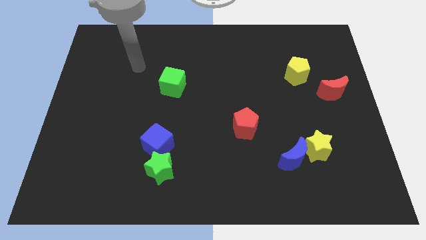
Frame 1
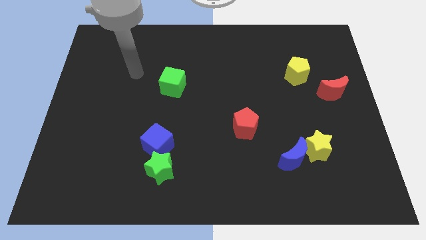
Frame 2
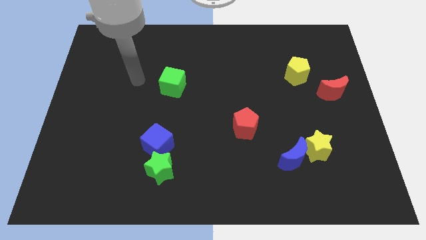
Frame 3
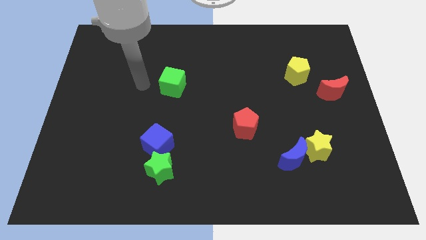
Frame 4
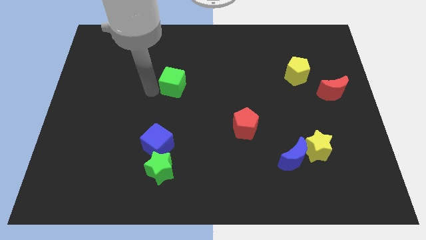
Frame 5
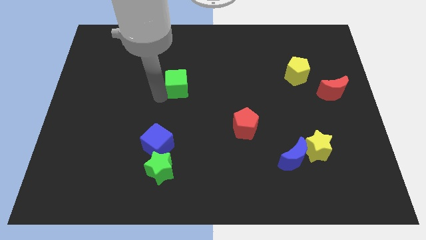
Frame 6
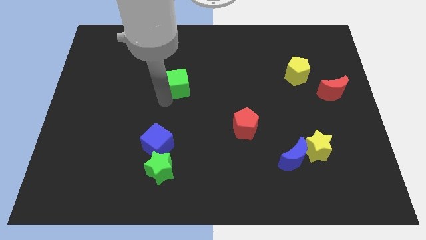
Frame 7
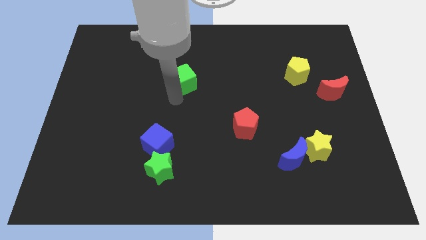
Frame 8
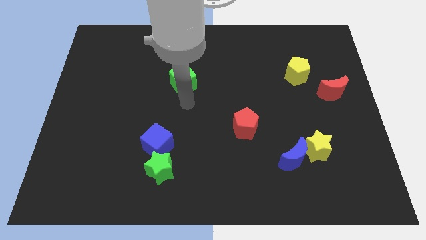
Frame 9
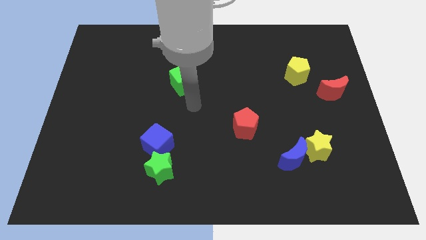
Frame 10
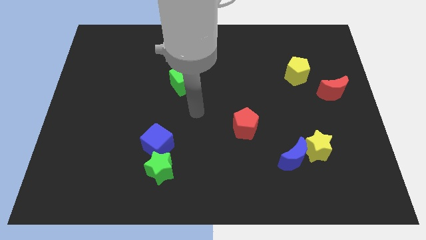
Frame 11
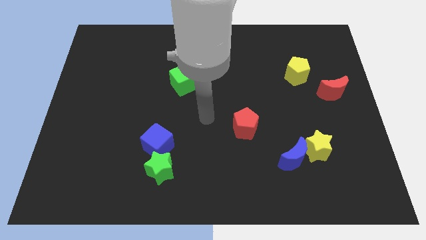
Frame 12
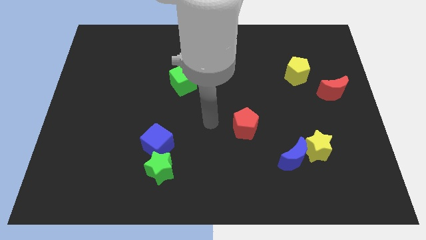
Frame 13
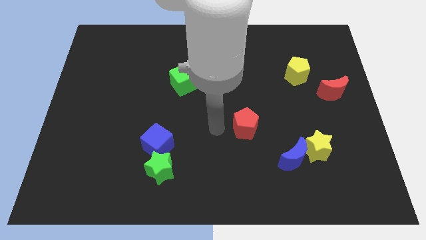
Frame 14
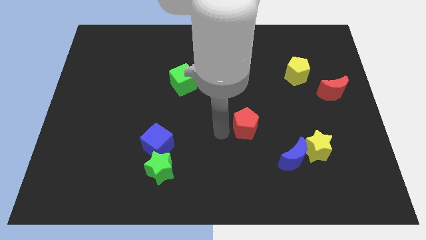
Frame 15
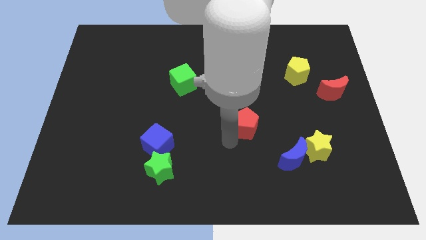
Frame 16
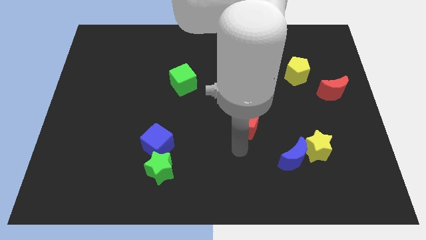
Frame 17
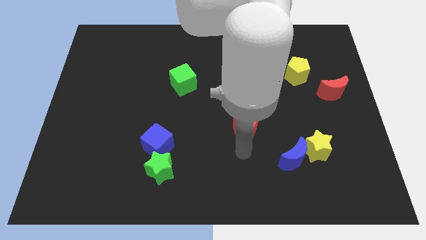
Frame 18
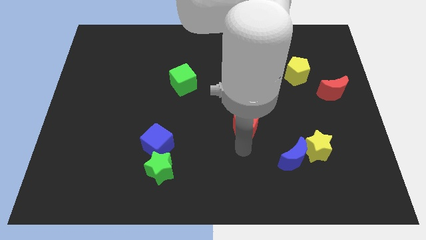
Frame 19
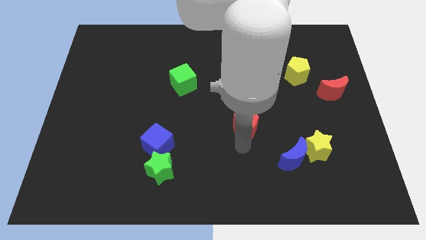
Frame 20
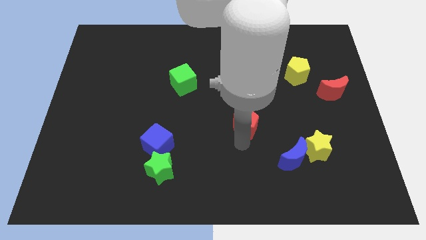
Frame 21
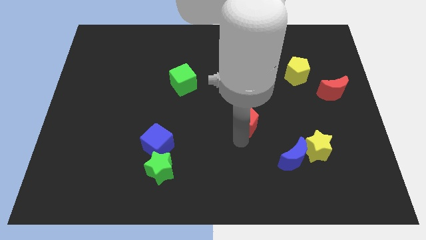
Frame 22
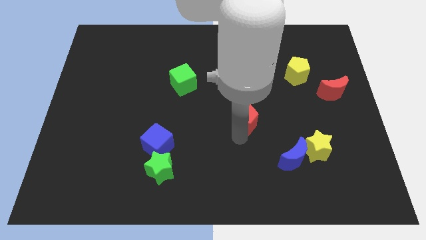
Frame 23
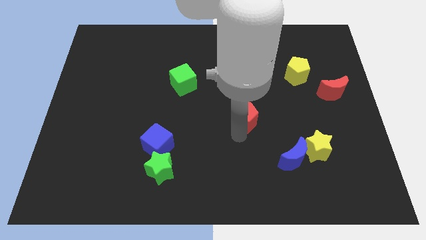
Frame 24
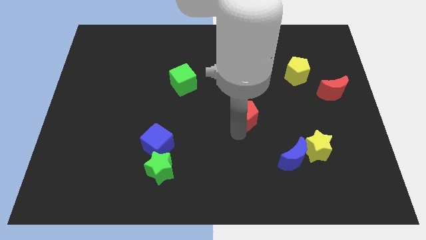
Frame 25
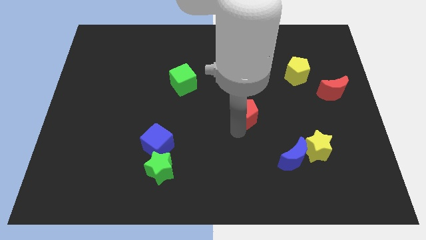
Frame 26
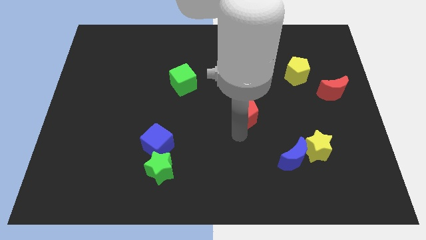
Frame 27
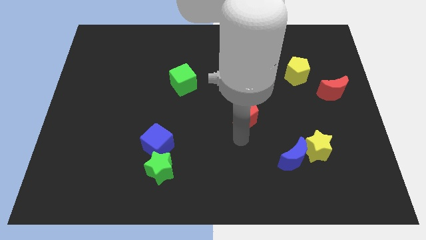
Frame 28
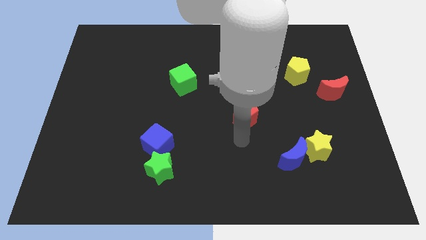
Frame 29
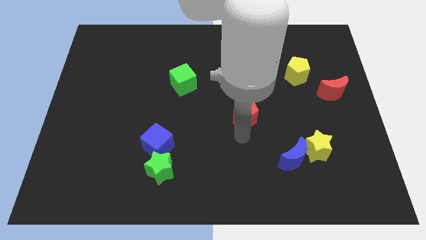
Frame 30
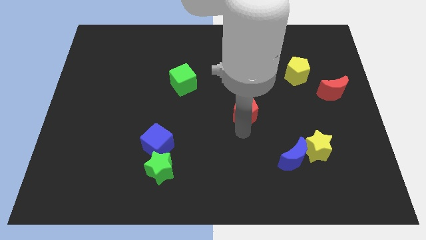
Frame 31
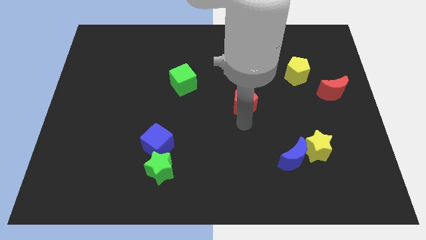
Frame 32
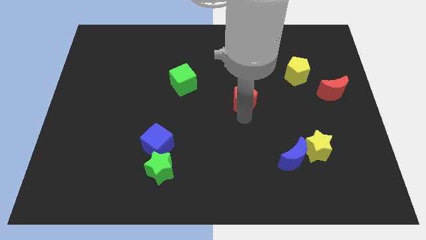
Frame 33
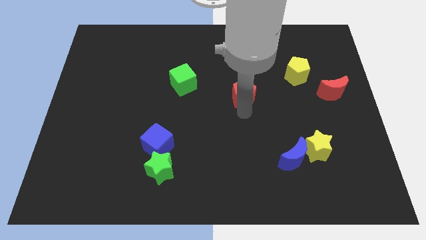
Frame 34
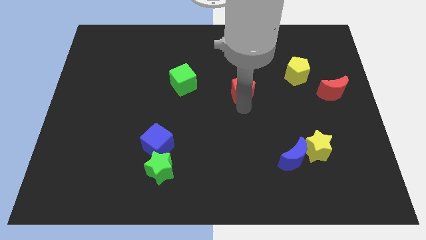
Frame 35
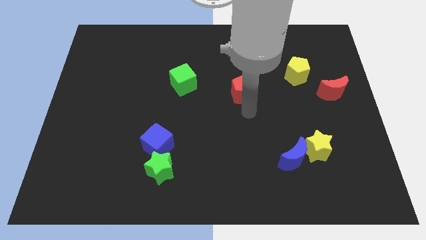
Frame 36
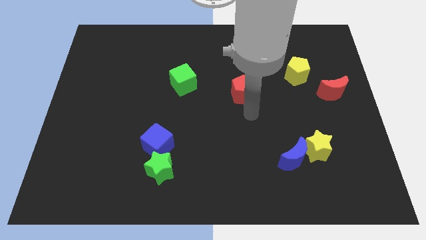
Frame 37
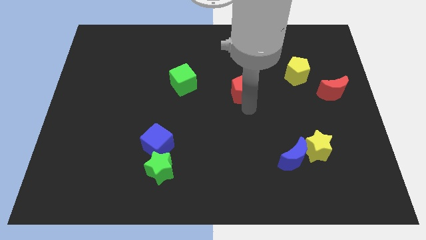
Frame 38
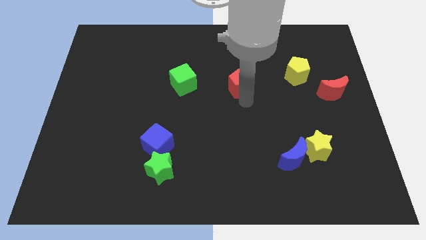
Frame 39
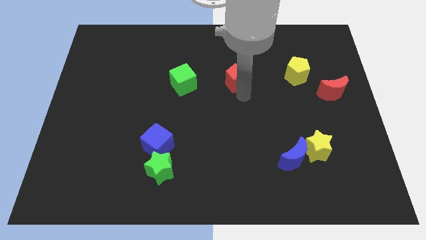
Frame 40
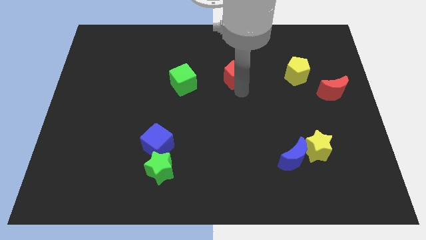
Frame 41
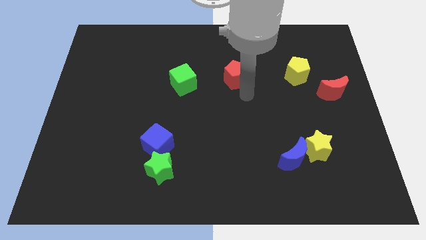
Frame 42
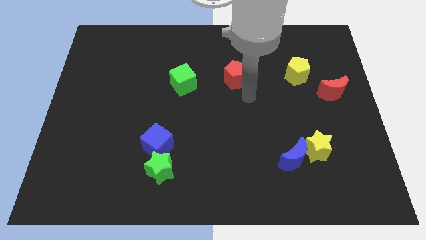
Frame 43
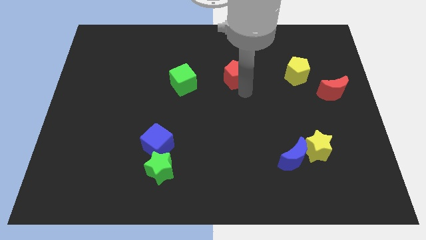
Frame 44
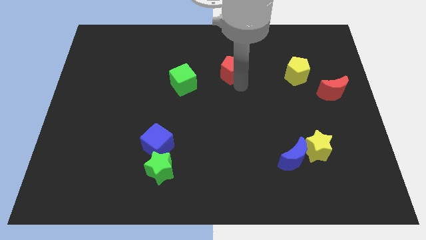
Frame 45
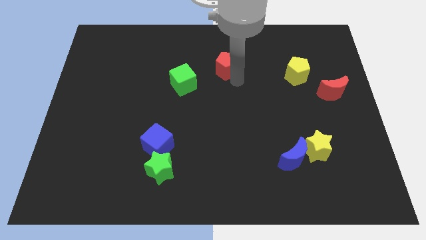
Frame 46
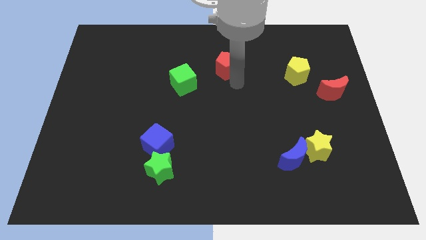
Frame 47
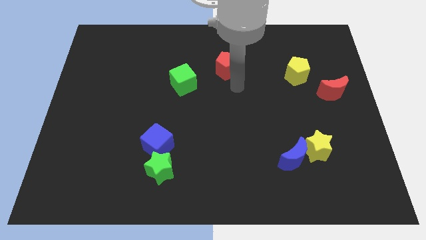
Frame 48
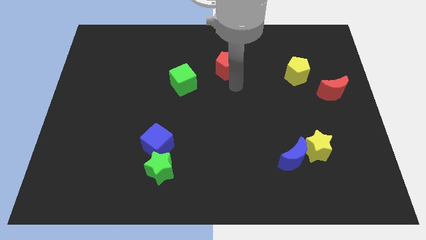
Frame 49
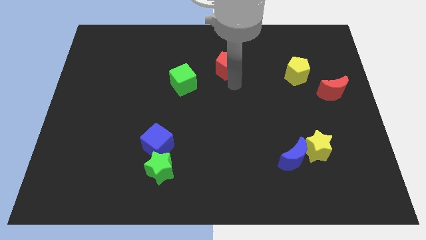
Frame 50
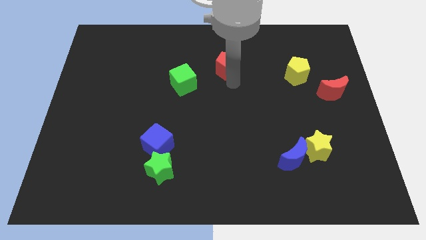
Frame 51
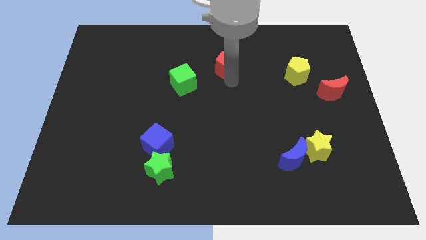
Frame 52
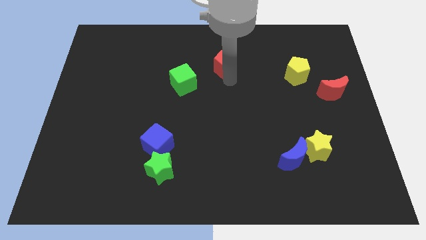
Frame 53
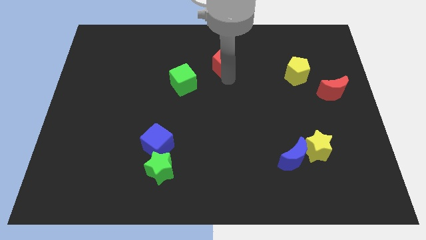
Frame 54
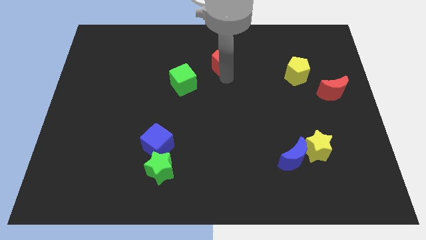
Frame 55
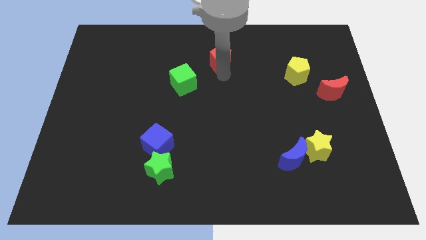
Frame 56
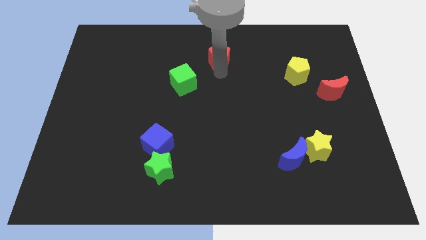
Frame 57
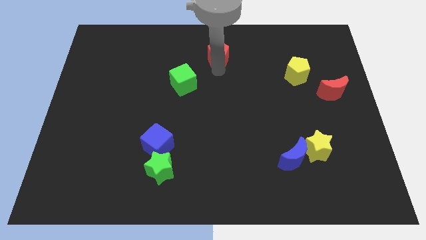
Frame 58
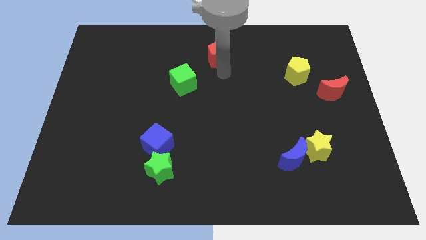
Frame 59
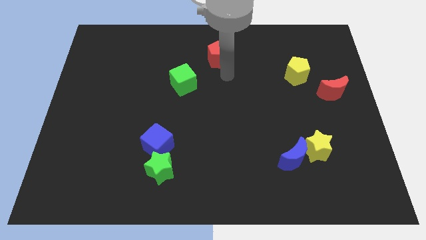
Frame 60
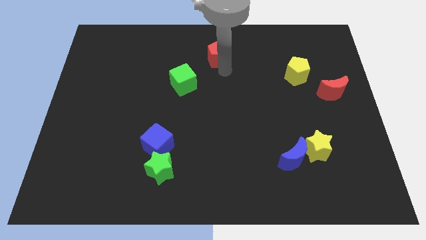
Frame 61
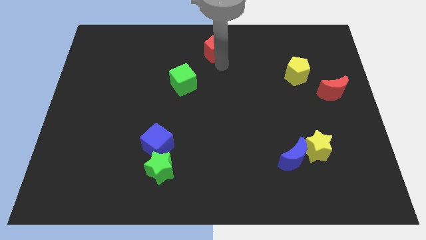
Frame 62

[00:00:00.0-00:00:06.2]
push the red pentagon to the towards your base

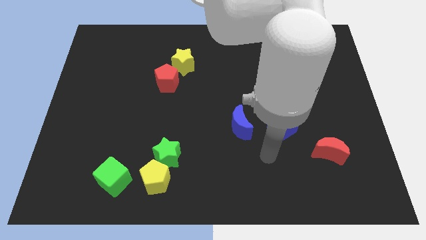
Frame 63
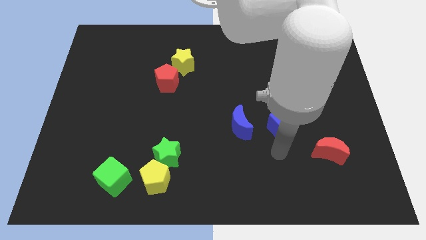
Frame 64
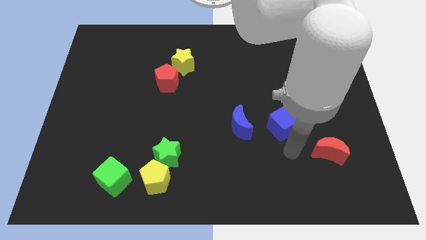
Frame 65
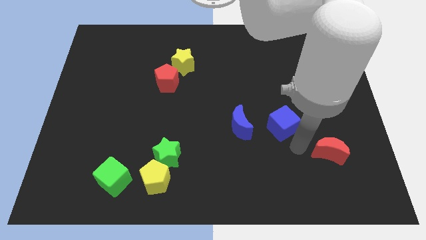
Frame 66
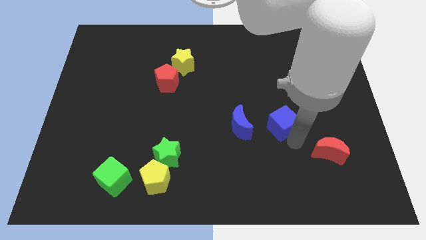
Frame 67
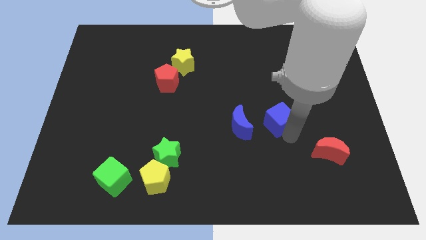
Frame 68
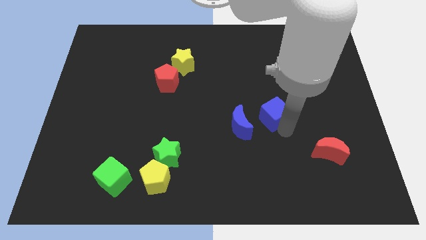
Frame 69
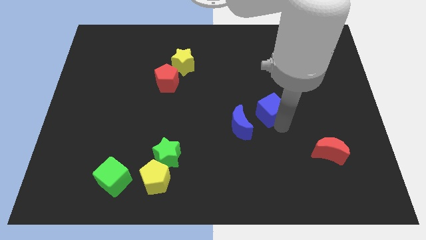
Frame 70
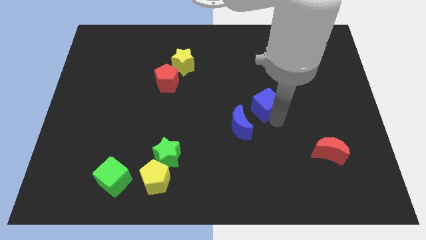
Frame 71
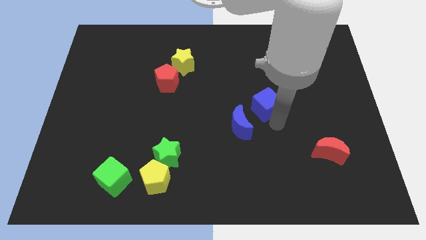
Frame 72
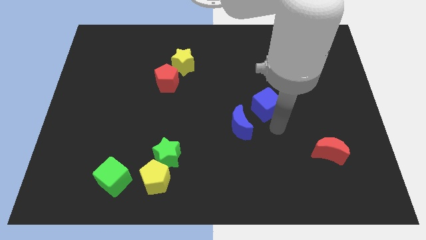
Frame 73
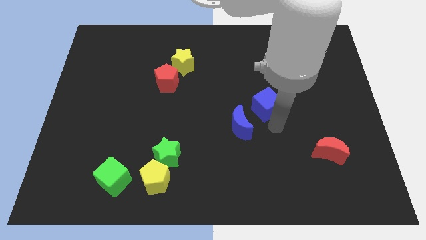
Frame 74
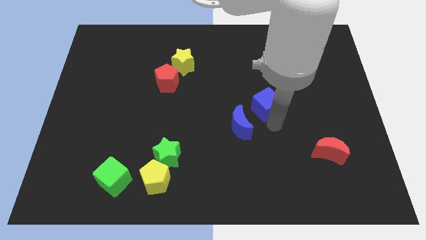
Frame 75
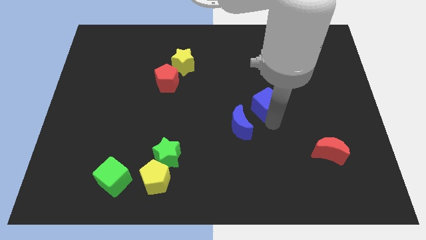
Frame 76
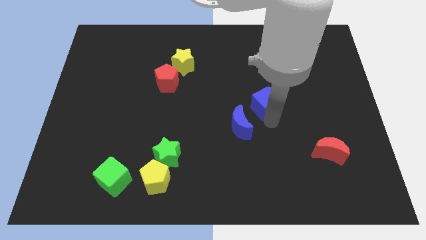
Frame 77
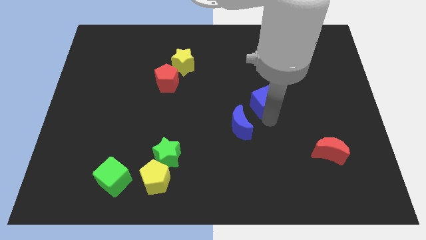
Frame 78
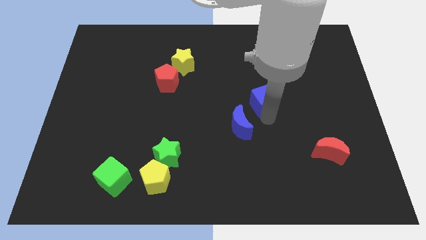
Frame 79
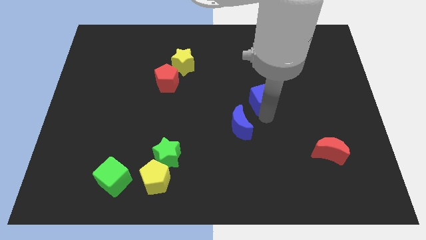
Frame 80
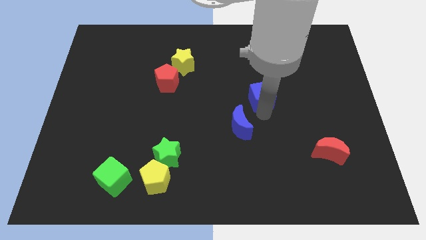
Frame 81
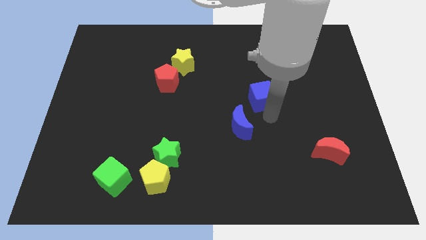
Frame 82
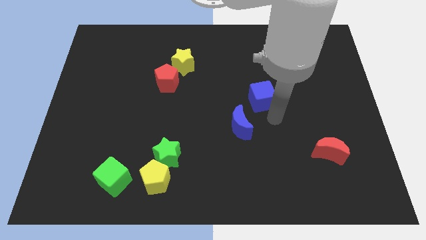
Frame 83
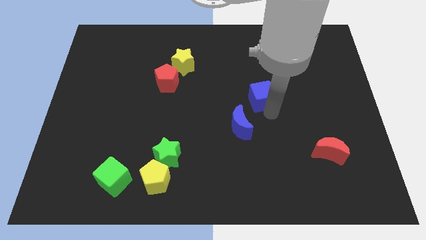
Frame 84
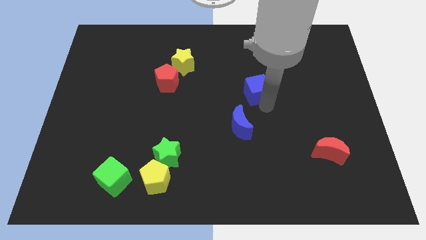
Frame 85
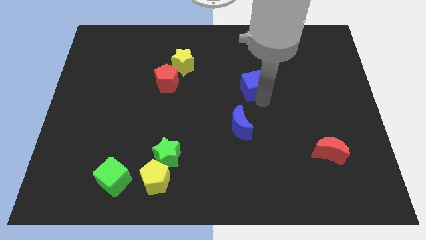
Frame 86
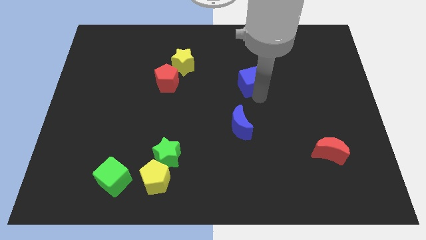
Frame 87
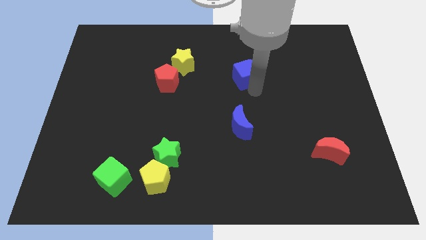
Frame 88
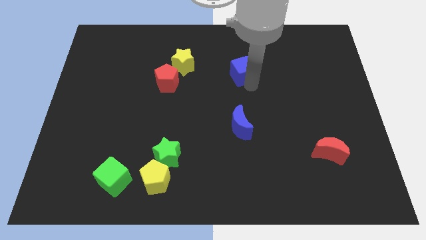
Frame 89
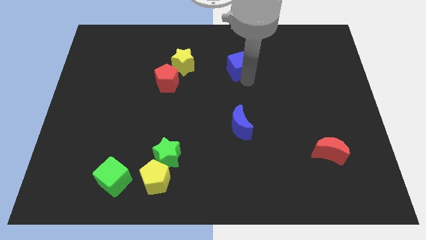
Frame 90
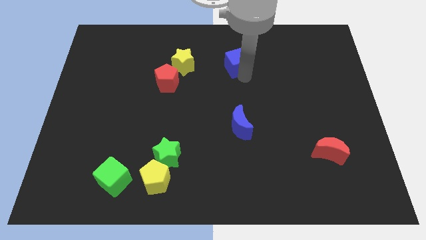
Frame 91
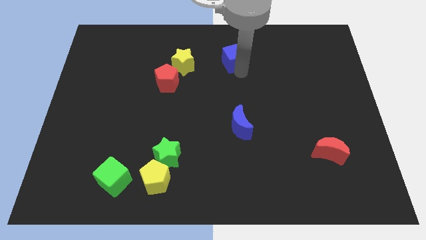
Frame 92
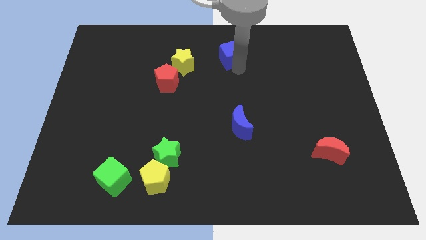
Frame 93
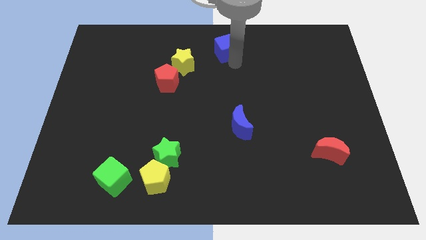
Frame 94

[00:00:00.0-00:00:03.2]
push the blue cube to the towards your base
